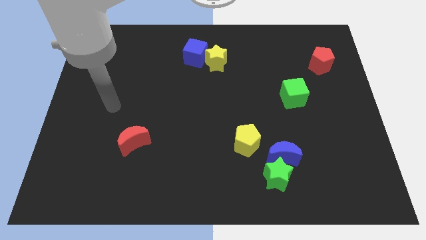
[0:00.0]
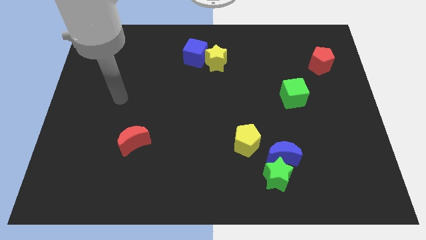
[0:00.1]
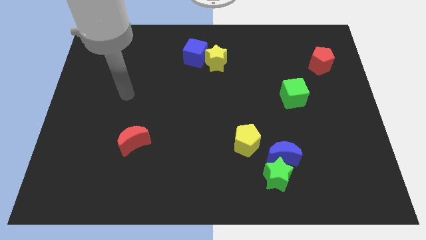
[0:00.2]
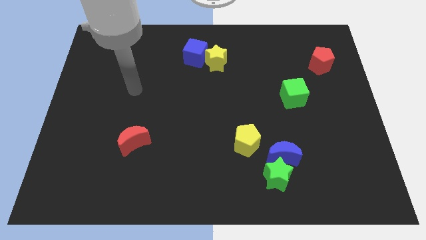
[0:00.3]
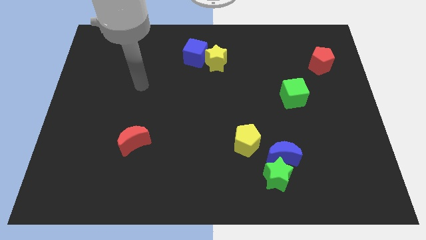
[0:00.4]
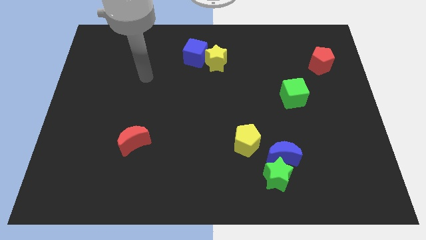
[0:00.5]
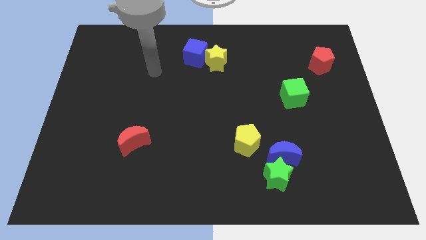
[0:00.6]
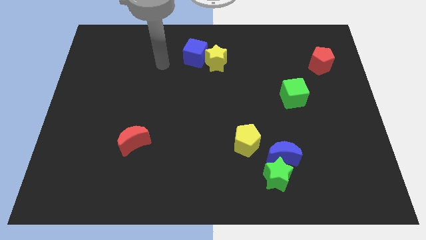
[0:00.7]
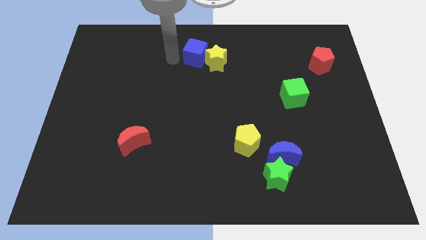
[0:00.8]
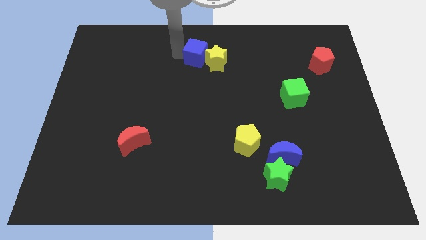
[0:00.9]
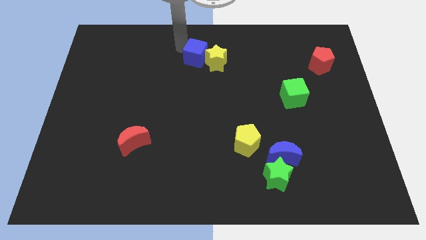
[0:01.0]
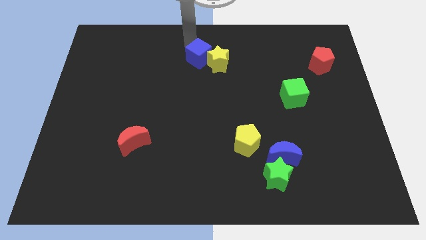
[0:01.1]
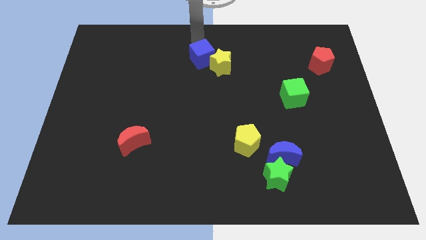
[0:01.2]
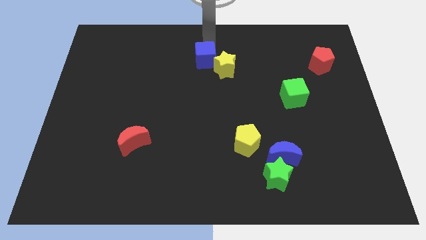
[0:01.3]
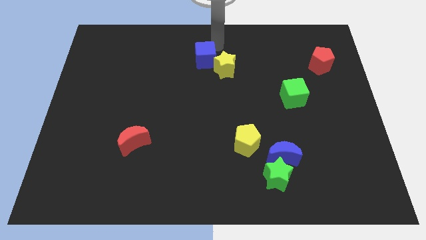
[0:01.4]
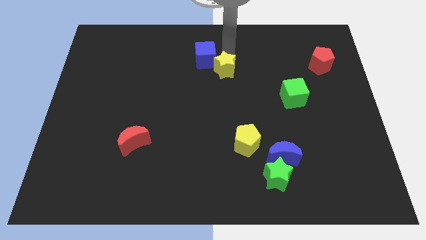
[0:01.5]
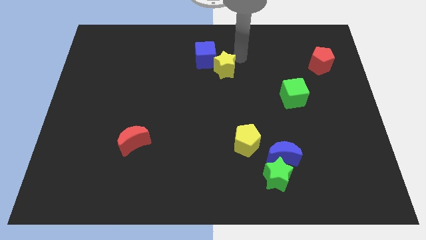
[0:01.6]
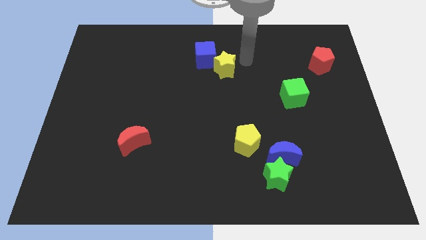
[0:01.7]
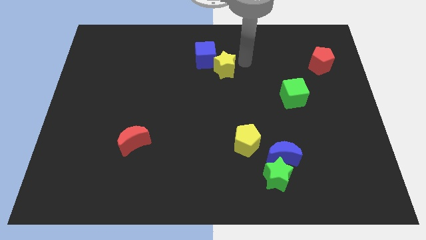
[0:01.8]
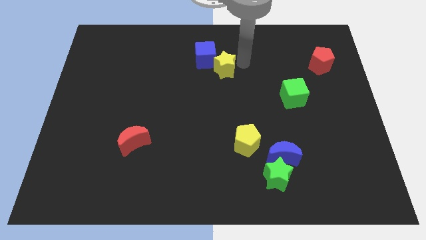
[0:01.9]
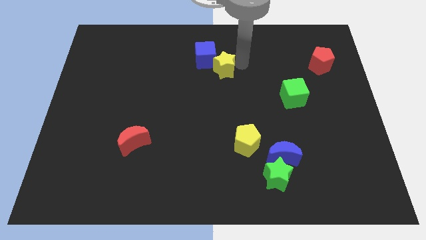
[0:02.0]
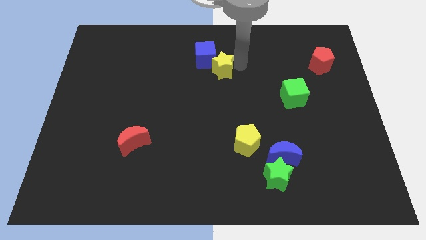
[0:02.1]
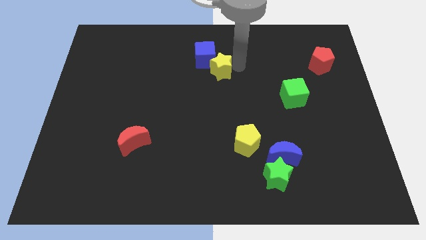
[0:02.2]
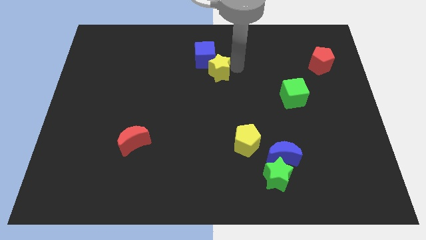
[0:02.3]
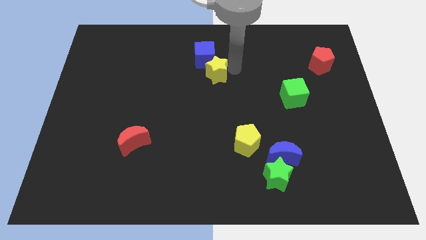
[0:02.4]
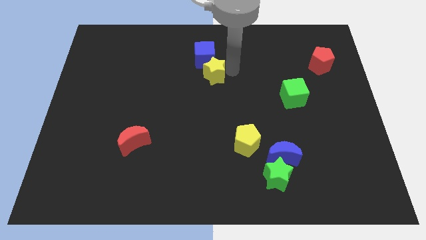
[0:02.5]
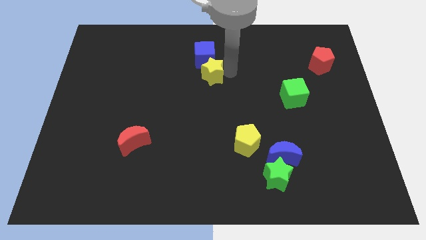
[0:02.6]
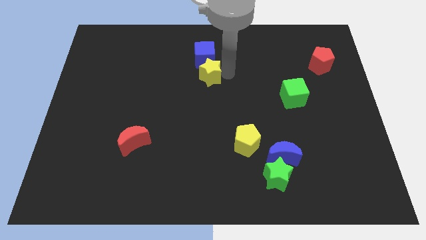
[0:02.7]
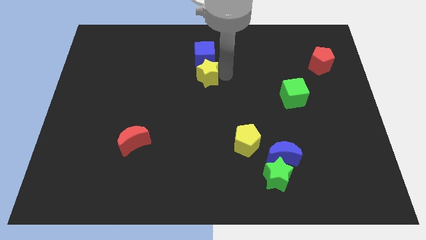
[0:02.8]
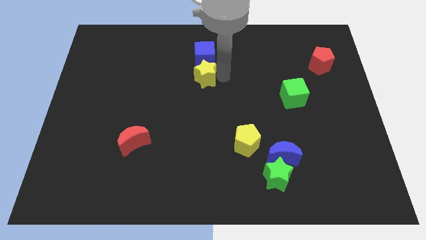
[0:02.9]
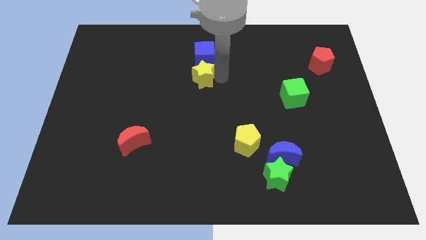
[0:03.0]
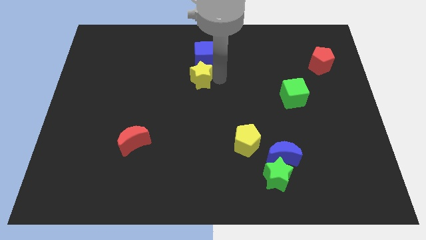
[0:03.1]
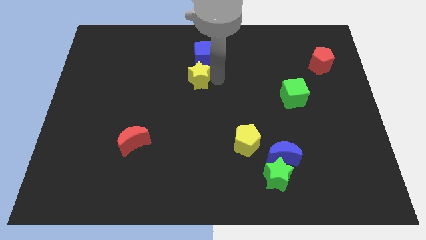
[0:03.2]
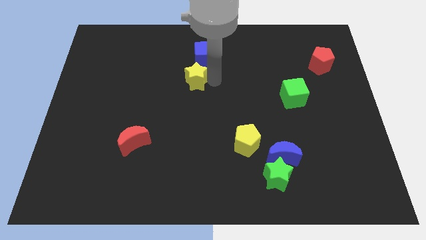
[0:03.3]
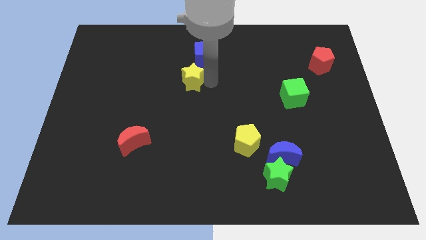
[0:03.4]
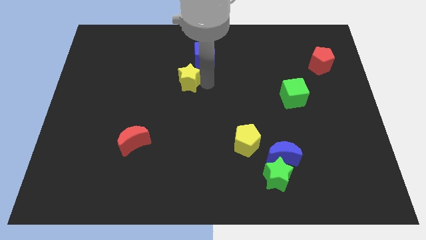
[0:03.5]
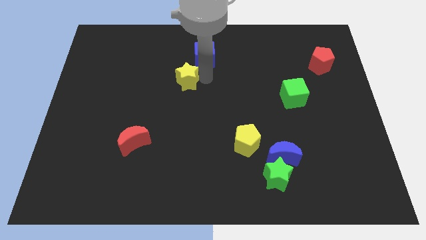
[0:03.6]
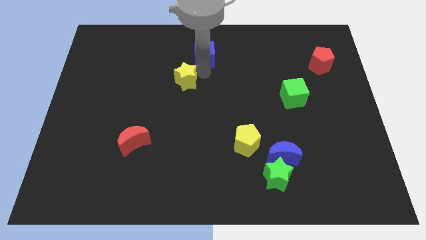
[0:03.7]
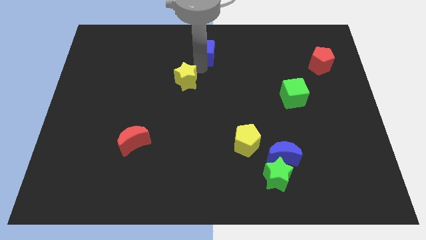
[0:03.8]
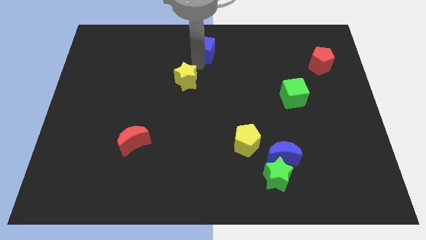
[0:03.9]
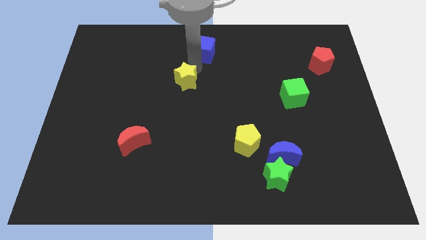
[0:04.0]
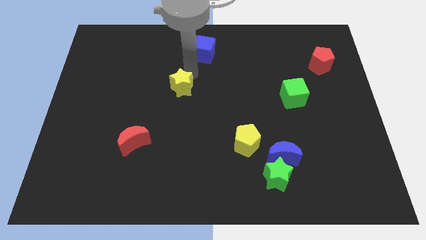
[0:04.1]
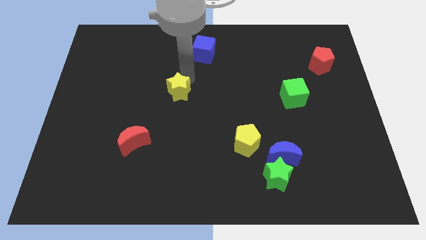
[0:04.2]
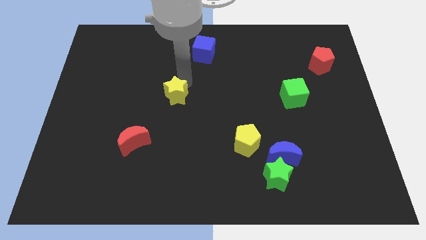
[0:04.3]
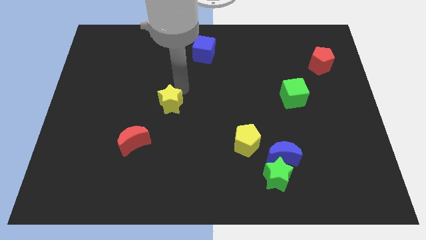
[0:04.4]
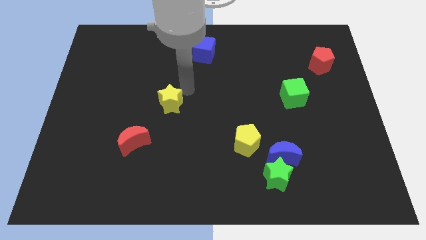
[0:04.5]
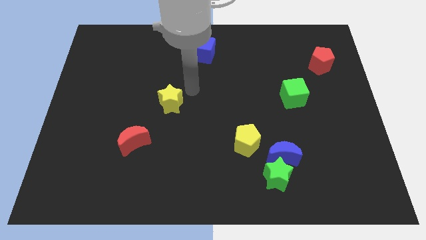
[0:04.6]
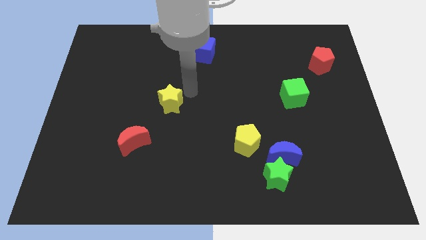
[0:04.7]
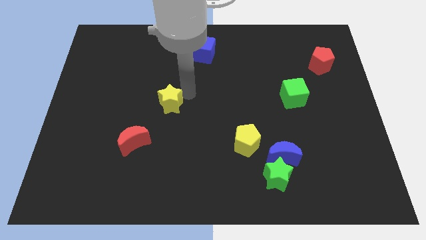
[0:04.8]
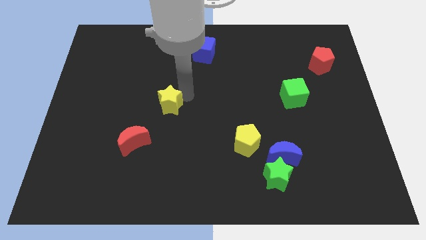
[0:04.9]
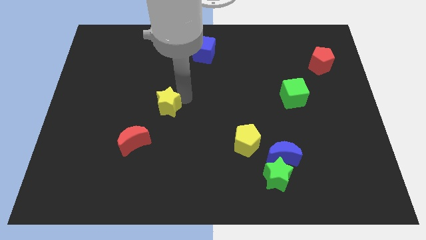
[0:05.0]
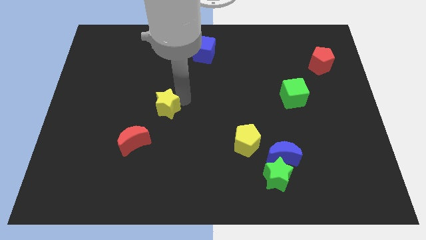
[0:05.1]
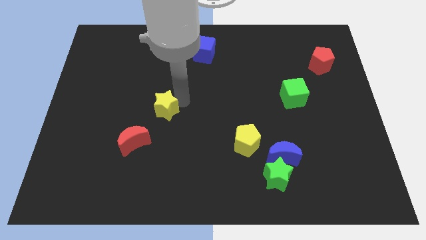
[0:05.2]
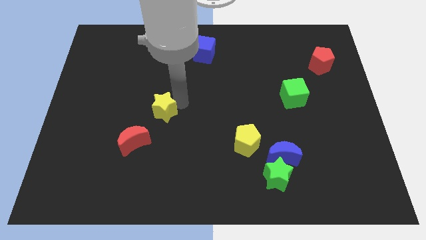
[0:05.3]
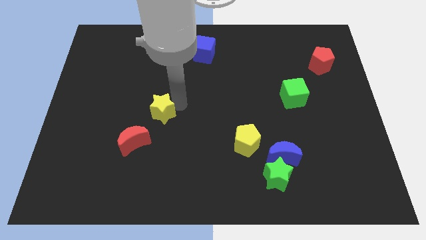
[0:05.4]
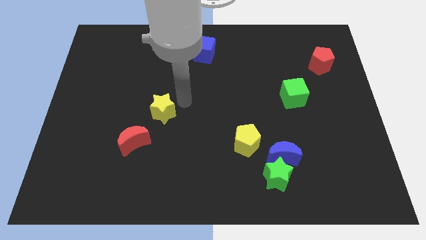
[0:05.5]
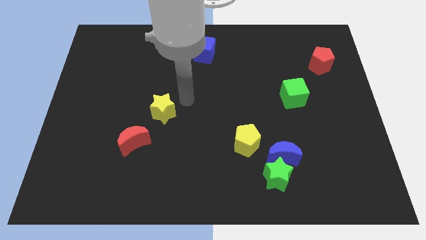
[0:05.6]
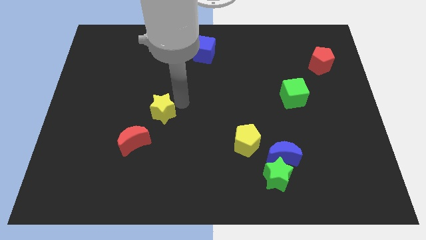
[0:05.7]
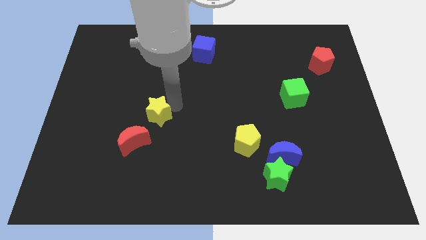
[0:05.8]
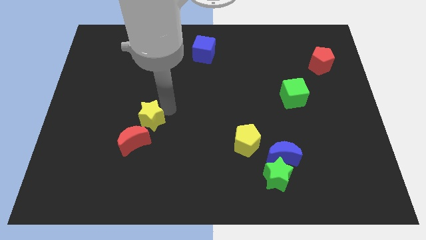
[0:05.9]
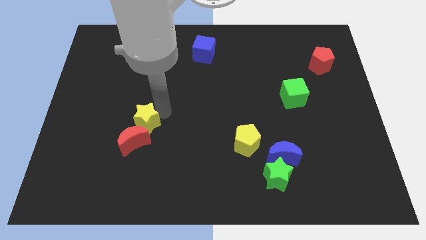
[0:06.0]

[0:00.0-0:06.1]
move the yellow star next to the red moon

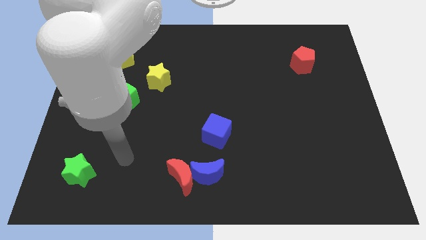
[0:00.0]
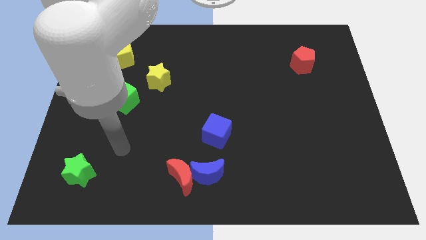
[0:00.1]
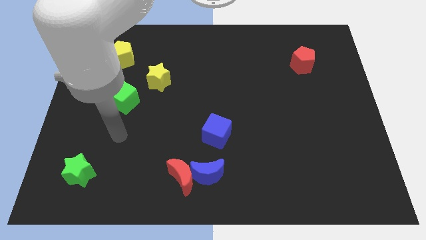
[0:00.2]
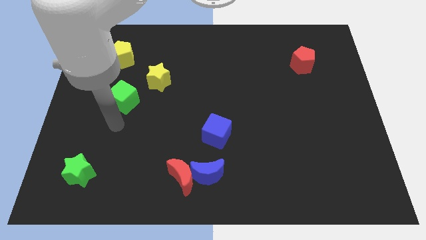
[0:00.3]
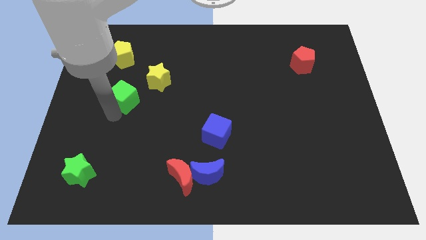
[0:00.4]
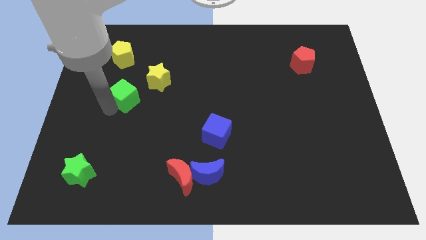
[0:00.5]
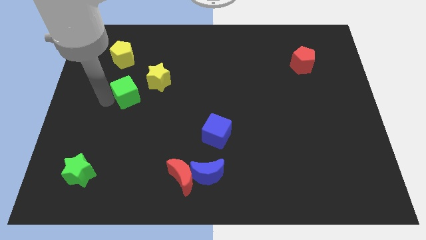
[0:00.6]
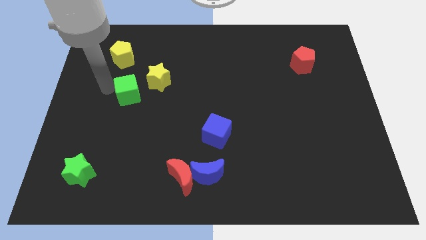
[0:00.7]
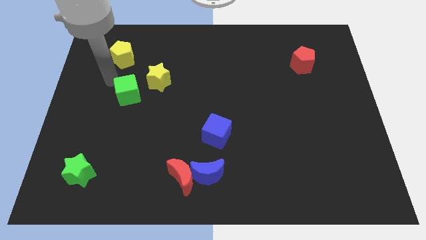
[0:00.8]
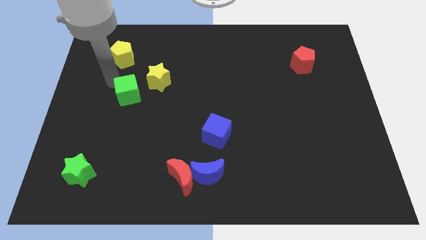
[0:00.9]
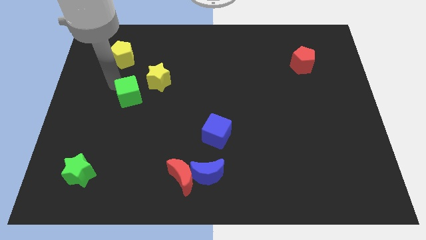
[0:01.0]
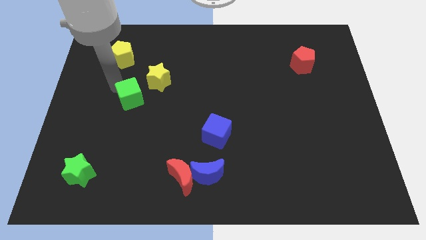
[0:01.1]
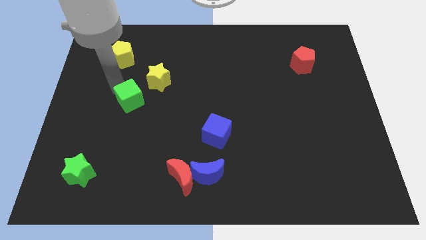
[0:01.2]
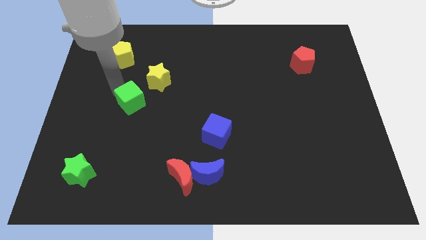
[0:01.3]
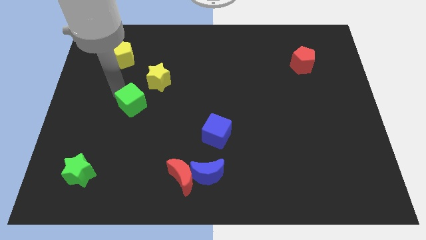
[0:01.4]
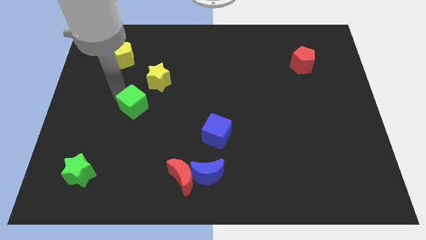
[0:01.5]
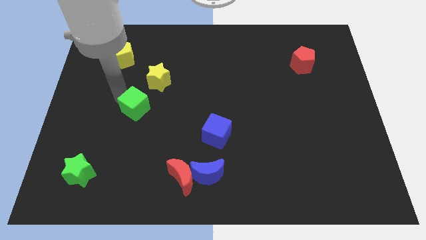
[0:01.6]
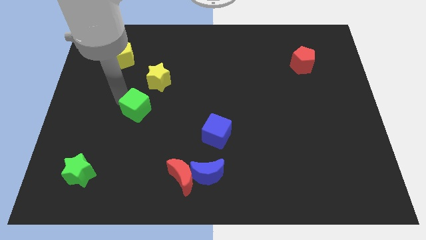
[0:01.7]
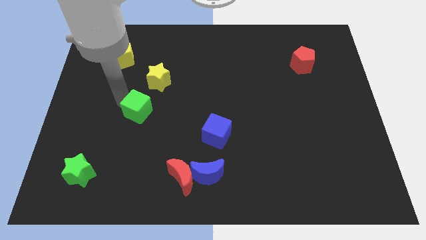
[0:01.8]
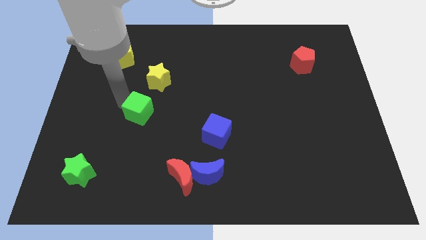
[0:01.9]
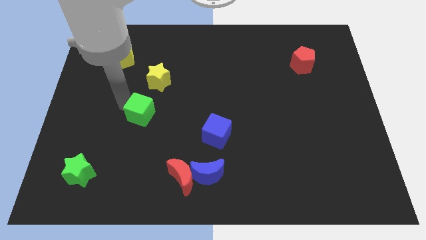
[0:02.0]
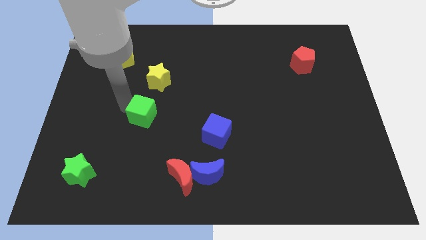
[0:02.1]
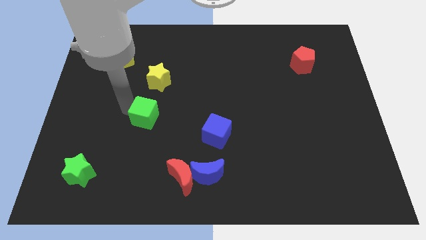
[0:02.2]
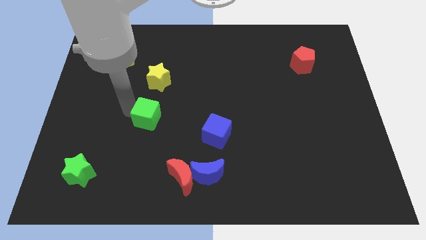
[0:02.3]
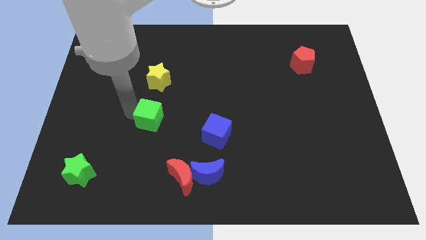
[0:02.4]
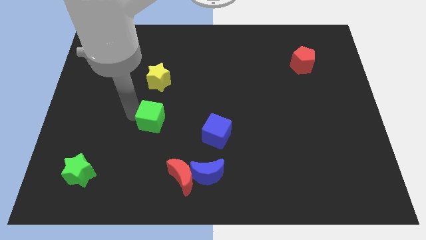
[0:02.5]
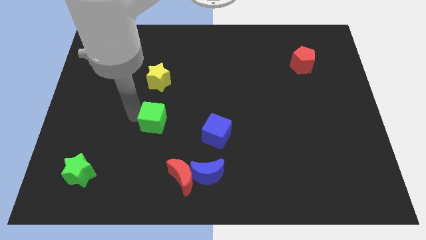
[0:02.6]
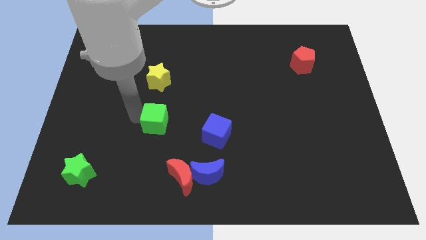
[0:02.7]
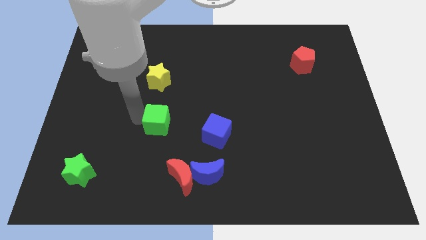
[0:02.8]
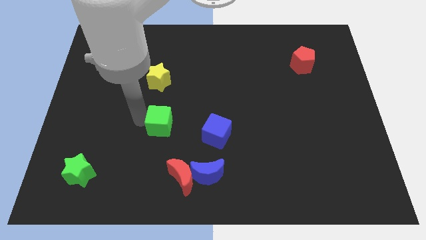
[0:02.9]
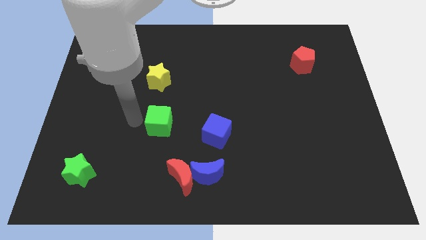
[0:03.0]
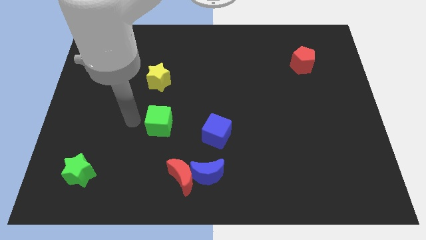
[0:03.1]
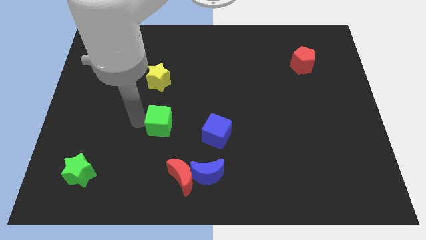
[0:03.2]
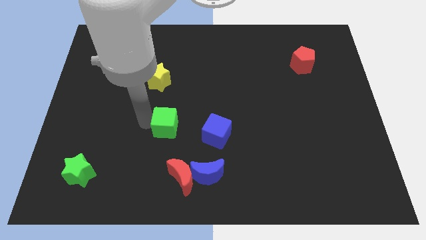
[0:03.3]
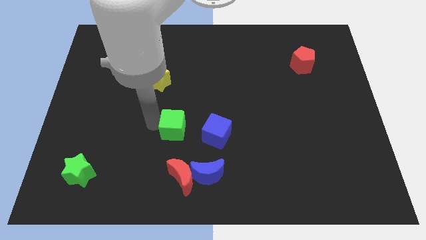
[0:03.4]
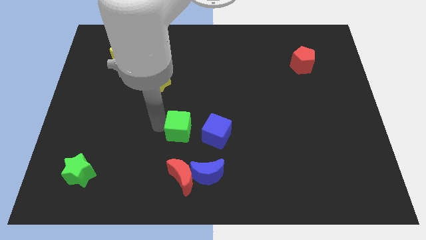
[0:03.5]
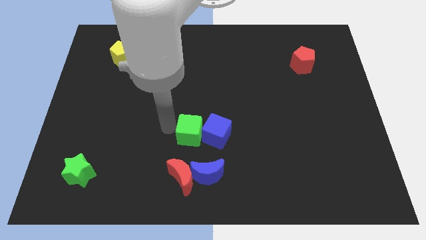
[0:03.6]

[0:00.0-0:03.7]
push the green cube towards the blue cube
